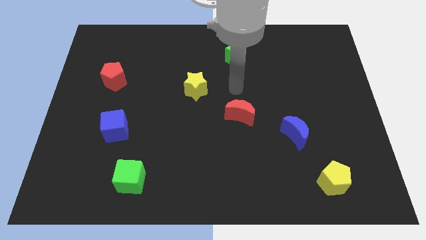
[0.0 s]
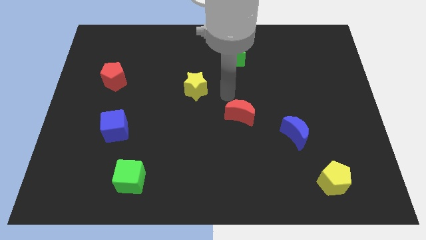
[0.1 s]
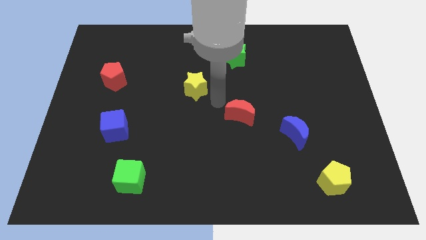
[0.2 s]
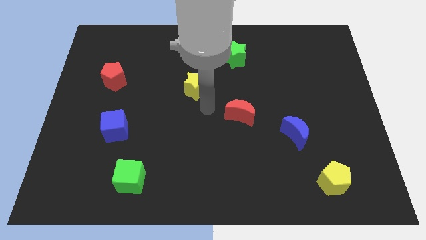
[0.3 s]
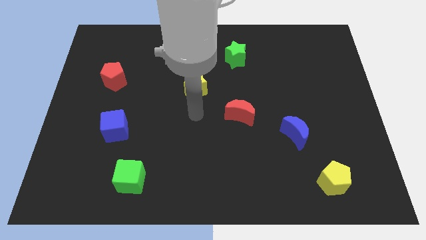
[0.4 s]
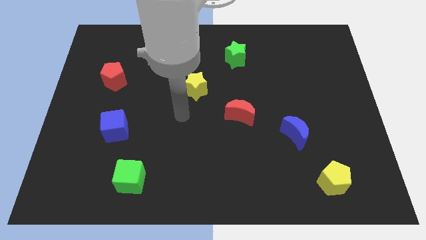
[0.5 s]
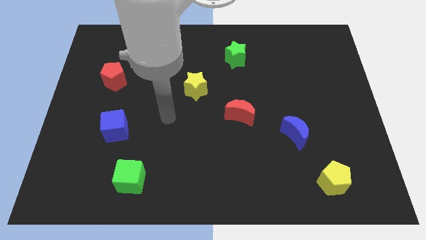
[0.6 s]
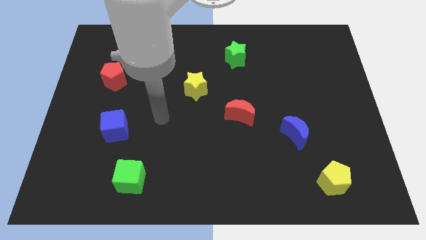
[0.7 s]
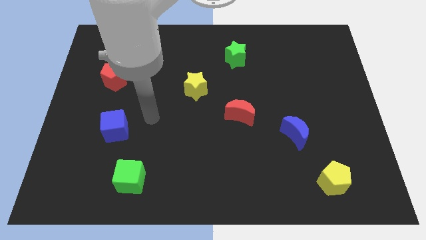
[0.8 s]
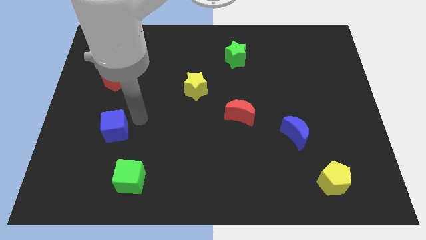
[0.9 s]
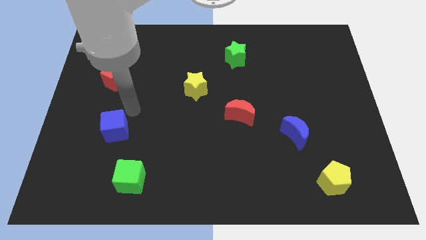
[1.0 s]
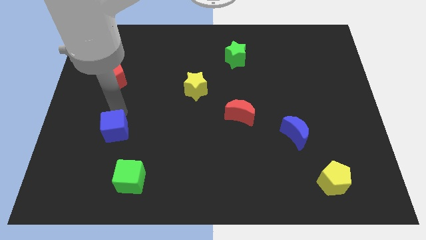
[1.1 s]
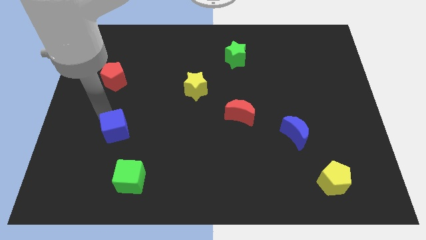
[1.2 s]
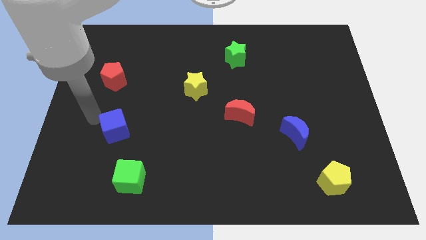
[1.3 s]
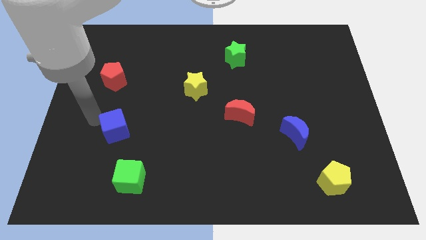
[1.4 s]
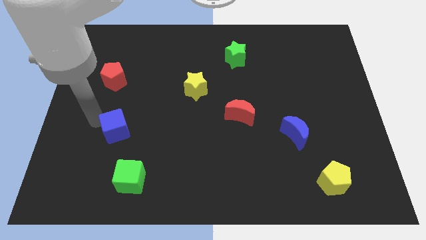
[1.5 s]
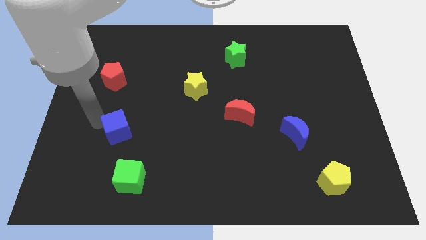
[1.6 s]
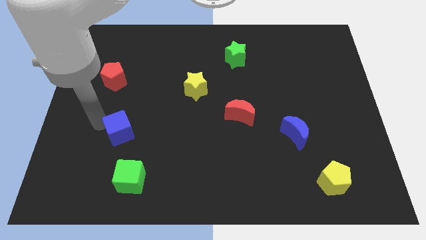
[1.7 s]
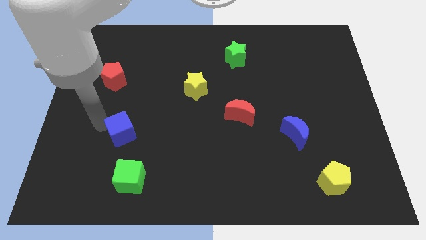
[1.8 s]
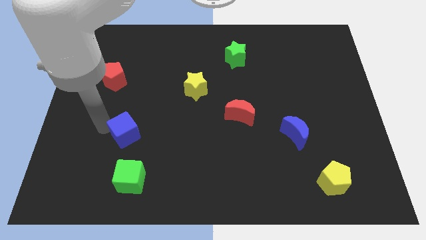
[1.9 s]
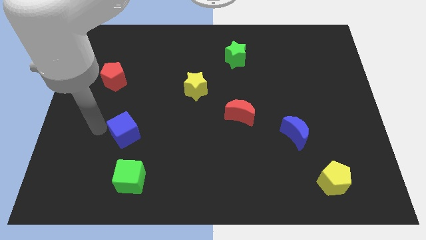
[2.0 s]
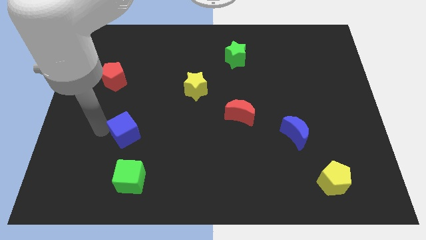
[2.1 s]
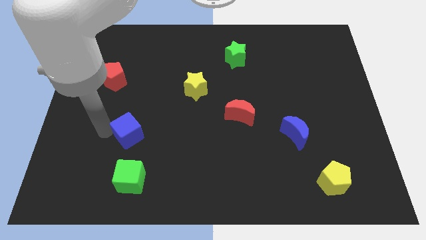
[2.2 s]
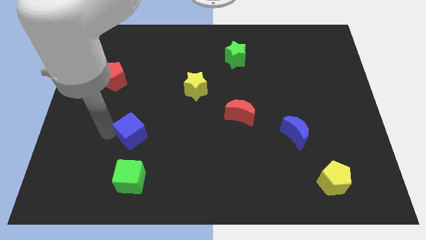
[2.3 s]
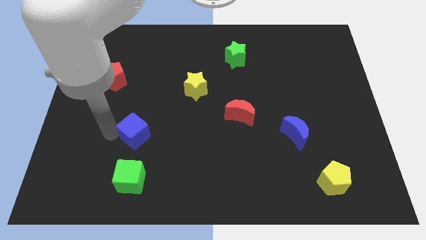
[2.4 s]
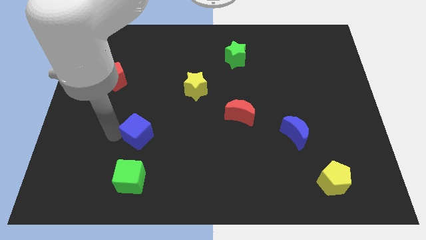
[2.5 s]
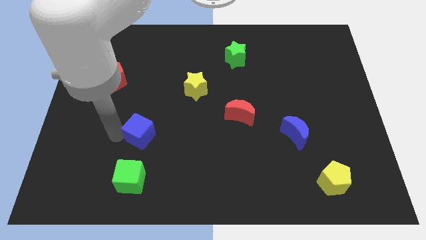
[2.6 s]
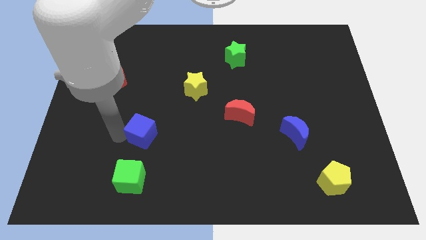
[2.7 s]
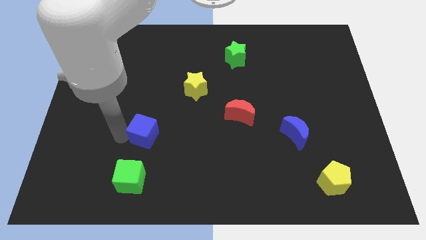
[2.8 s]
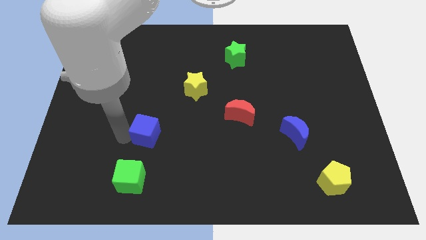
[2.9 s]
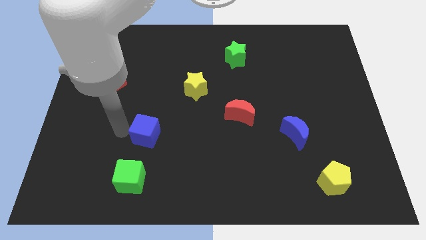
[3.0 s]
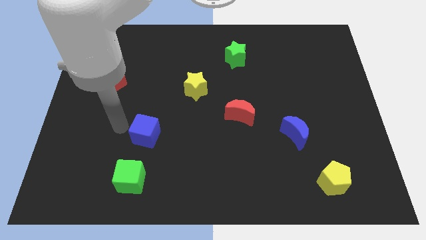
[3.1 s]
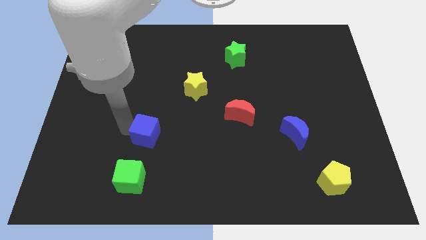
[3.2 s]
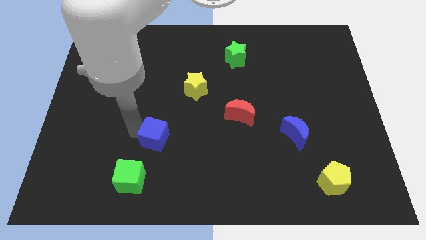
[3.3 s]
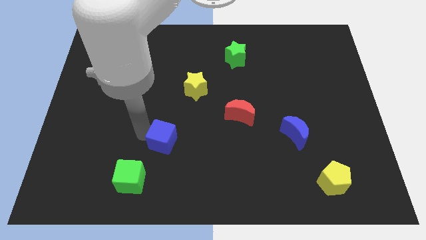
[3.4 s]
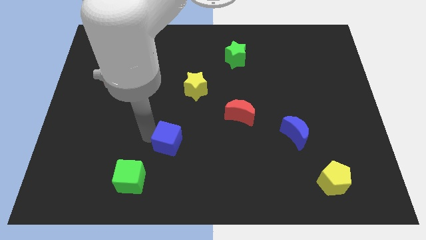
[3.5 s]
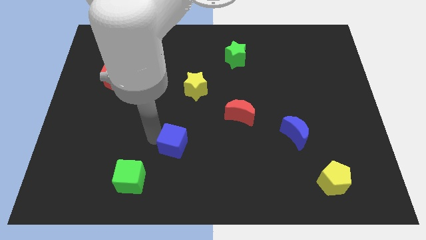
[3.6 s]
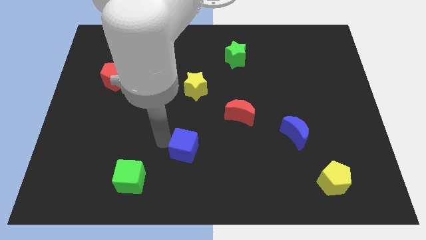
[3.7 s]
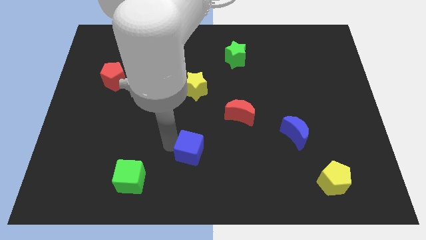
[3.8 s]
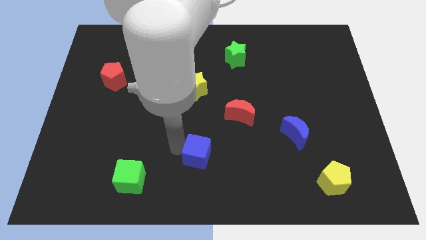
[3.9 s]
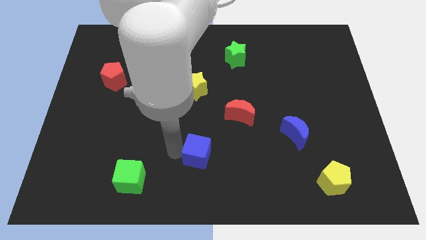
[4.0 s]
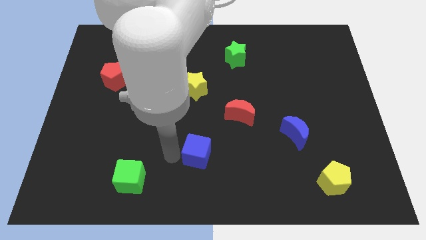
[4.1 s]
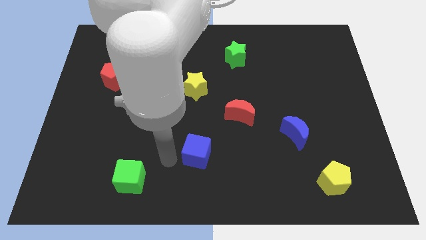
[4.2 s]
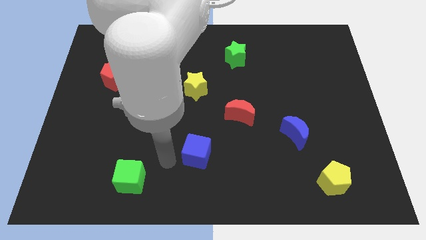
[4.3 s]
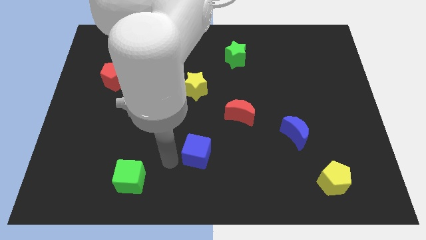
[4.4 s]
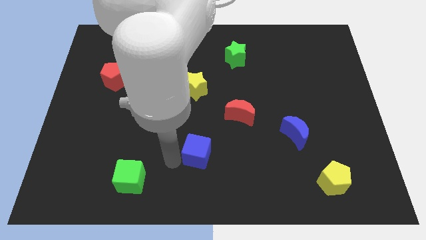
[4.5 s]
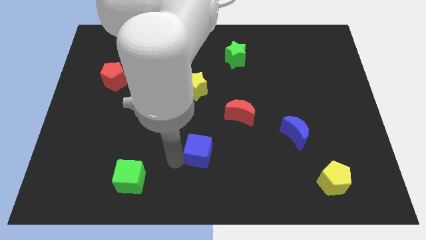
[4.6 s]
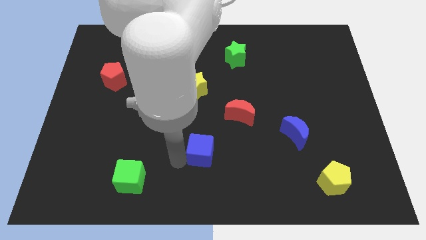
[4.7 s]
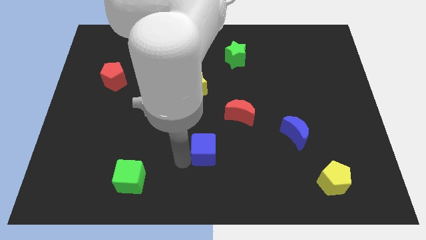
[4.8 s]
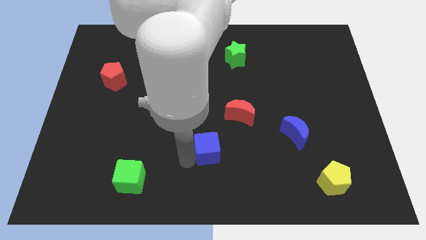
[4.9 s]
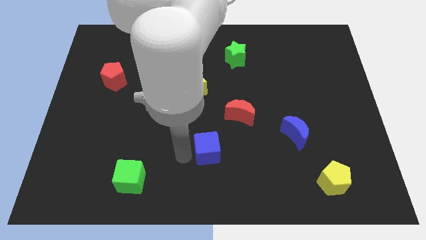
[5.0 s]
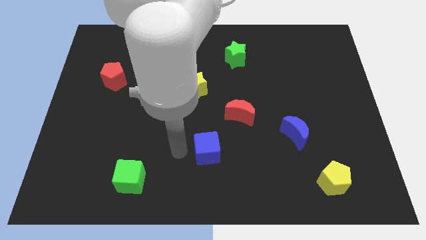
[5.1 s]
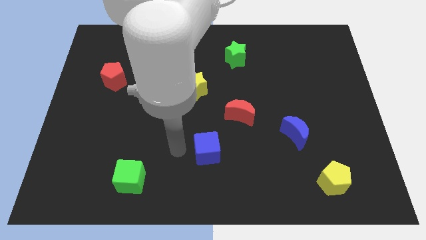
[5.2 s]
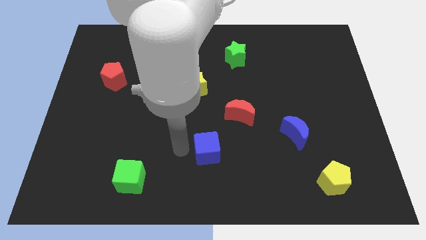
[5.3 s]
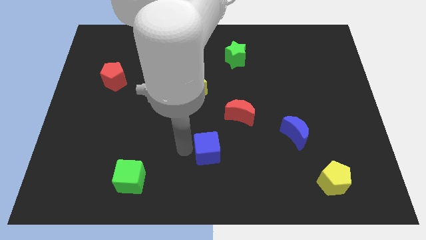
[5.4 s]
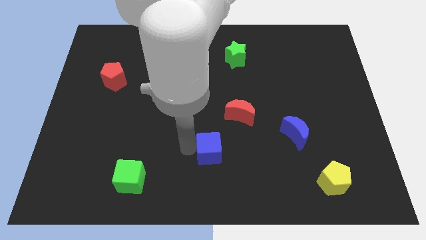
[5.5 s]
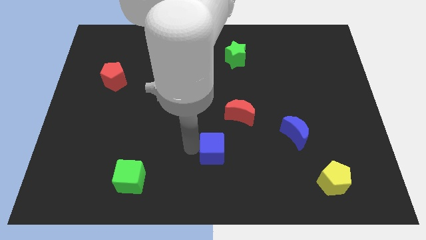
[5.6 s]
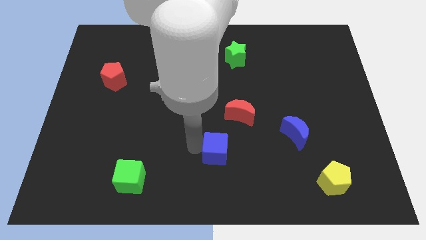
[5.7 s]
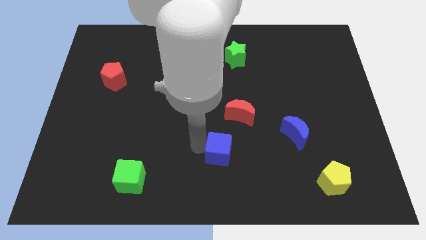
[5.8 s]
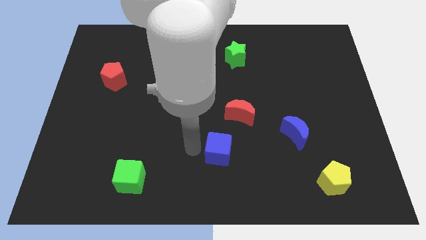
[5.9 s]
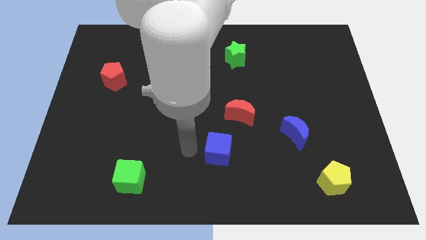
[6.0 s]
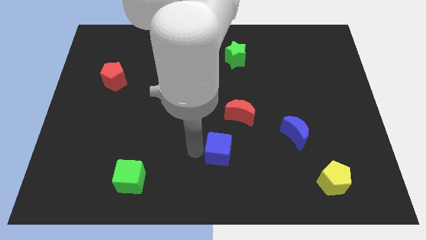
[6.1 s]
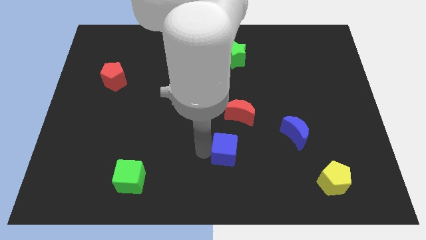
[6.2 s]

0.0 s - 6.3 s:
move the blue cube to the bottom side of the red moon

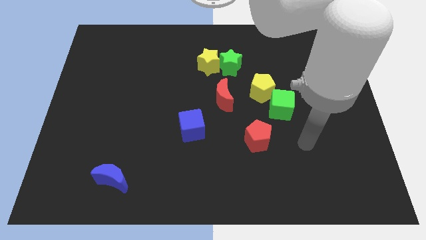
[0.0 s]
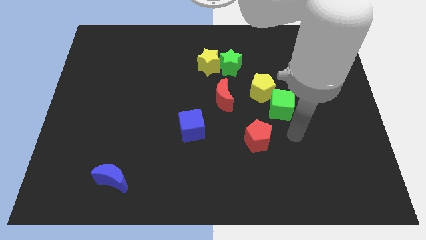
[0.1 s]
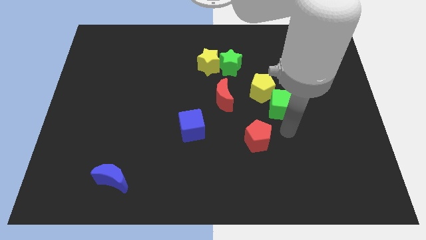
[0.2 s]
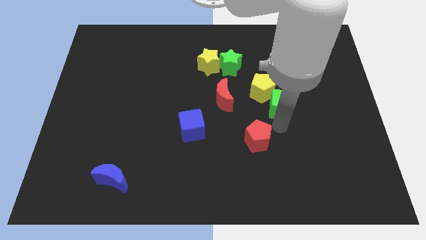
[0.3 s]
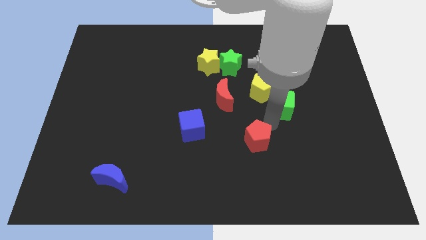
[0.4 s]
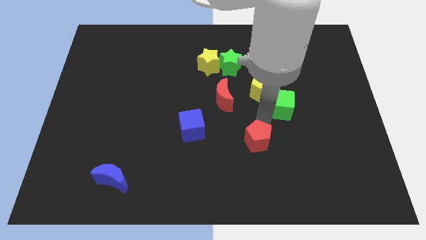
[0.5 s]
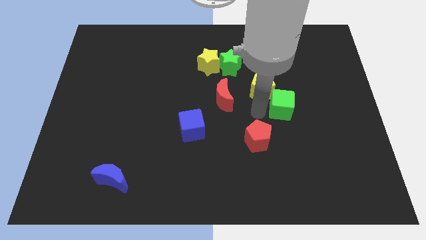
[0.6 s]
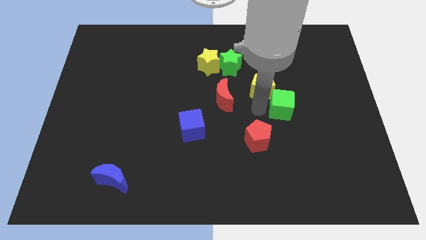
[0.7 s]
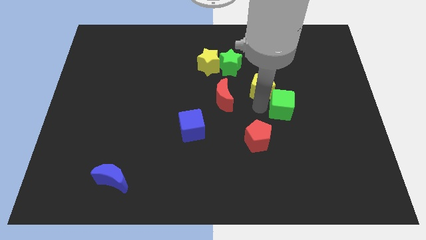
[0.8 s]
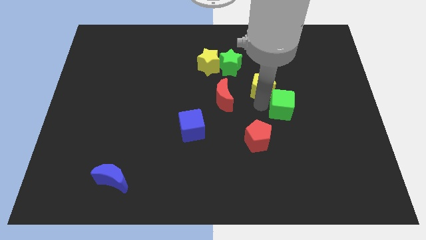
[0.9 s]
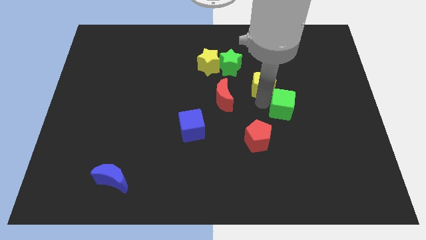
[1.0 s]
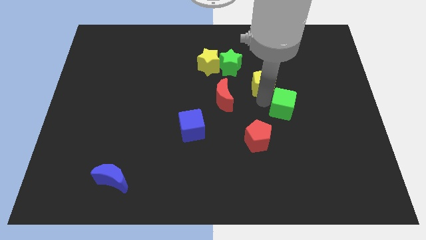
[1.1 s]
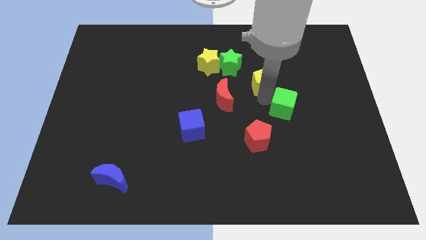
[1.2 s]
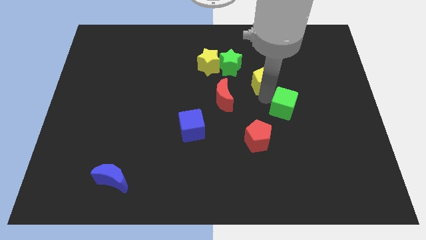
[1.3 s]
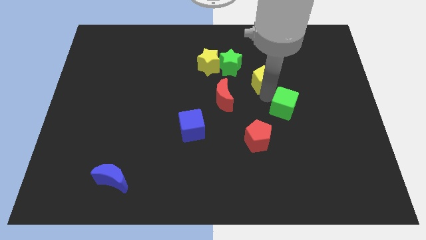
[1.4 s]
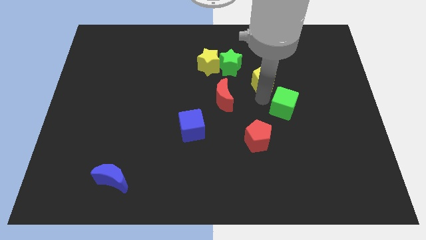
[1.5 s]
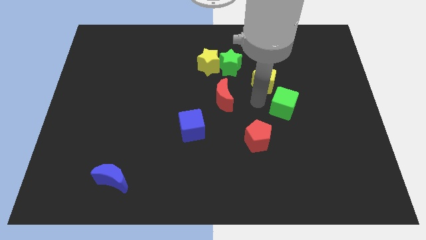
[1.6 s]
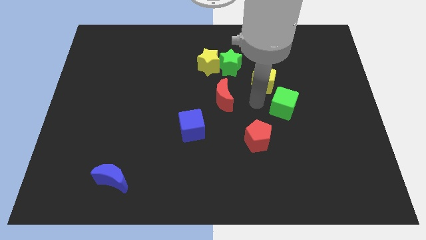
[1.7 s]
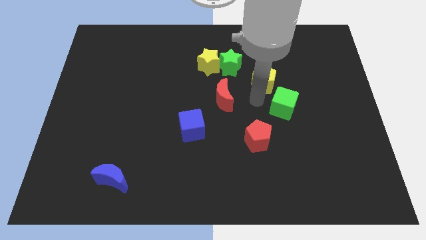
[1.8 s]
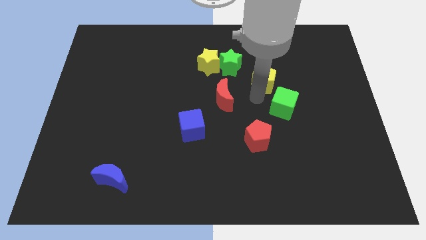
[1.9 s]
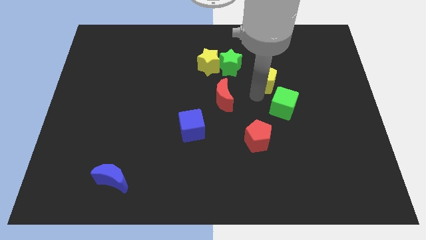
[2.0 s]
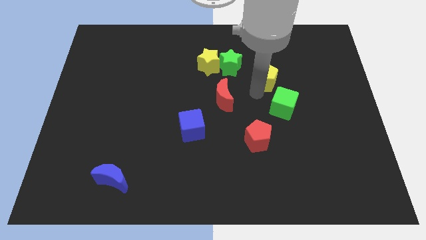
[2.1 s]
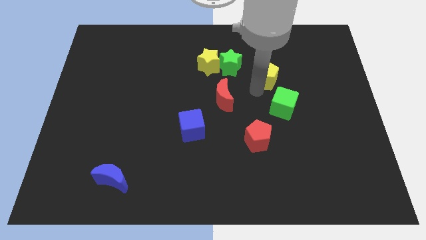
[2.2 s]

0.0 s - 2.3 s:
push the yellow pentagon to the right of the green star
